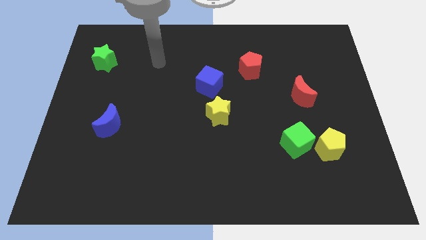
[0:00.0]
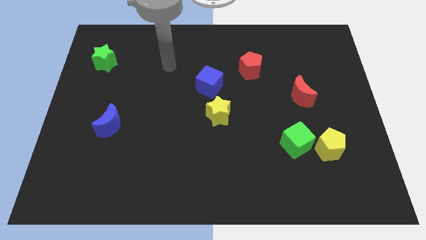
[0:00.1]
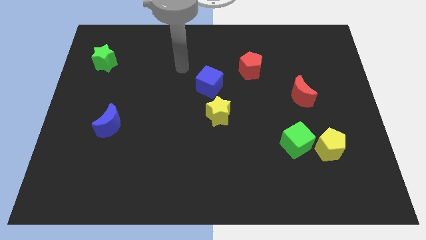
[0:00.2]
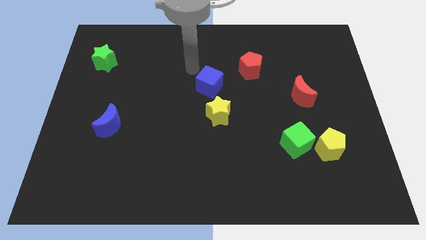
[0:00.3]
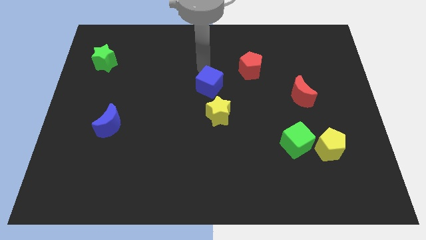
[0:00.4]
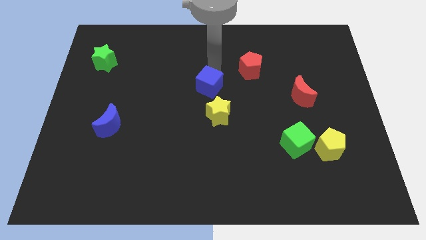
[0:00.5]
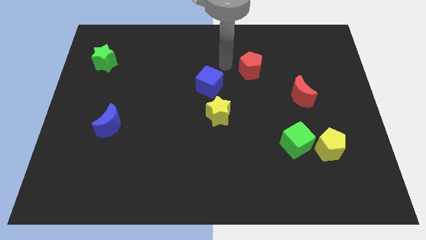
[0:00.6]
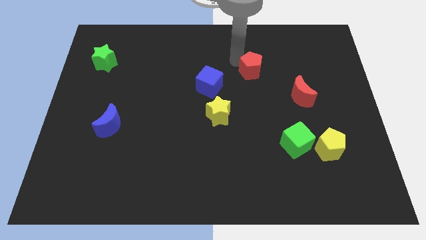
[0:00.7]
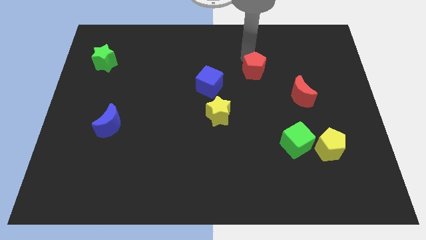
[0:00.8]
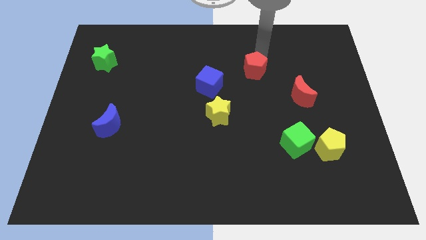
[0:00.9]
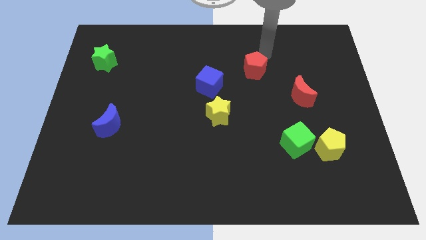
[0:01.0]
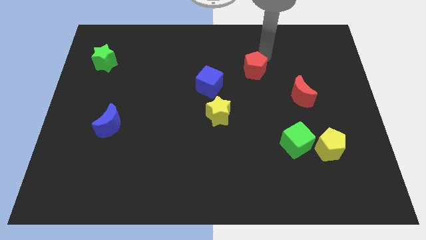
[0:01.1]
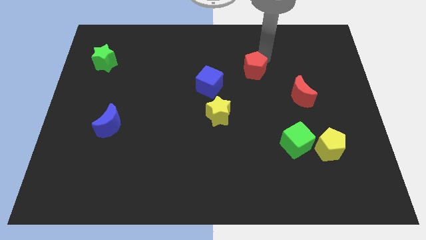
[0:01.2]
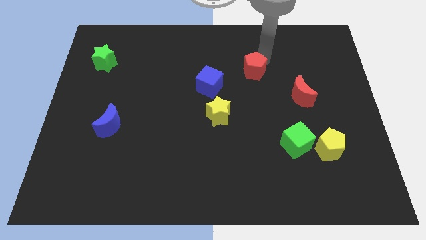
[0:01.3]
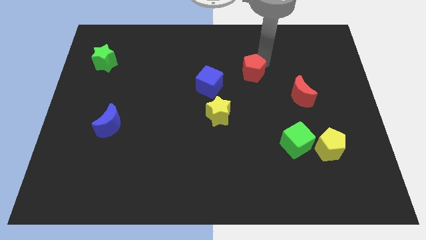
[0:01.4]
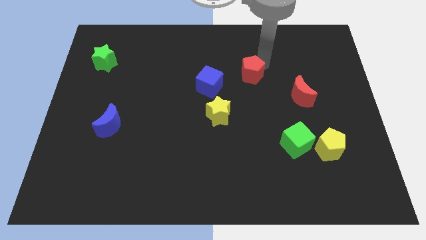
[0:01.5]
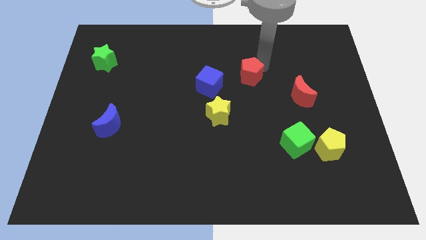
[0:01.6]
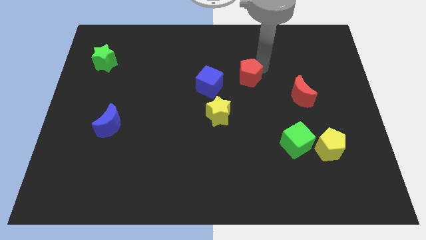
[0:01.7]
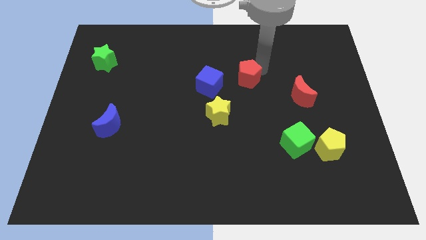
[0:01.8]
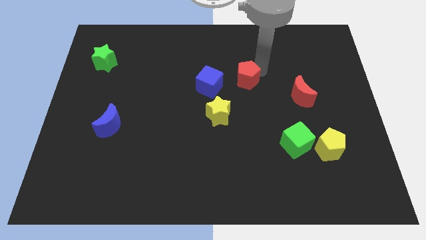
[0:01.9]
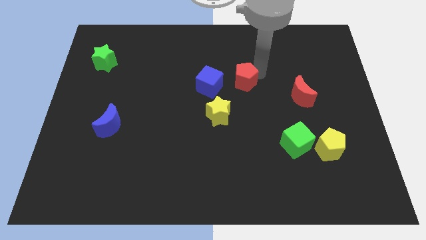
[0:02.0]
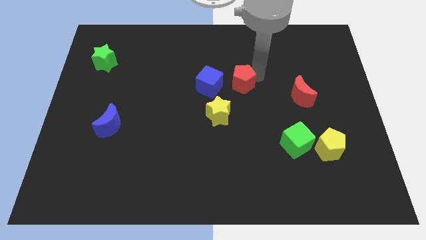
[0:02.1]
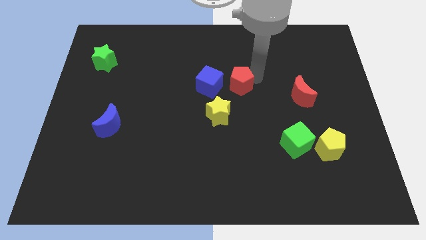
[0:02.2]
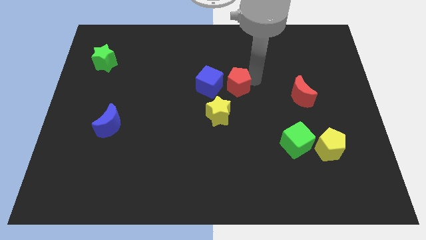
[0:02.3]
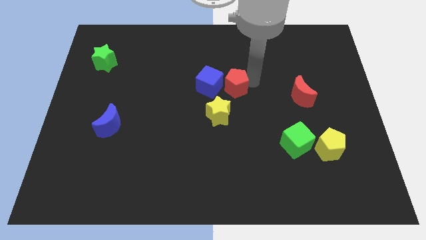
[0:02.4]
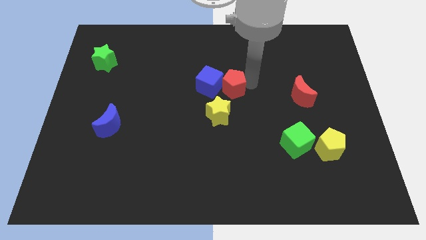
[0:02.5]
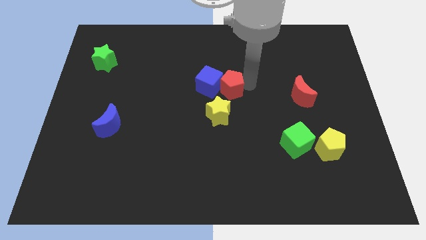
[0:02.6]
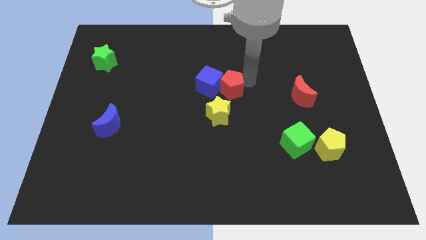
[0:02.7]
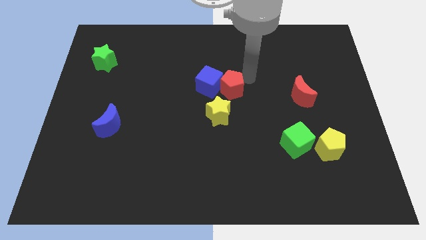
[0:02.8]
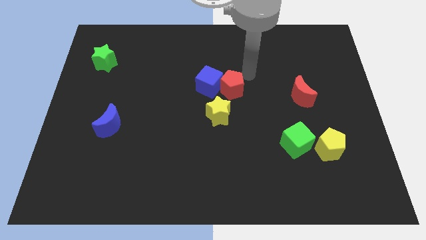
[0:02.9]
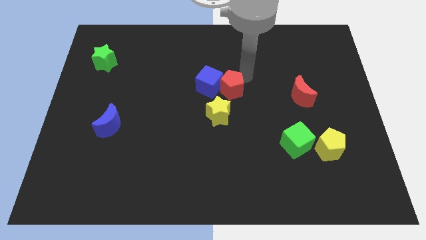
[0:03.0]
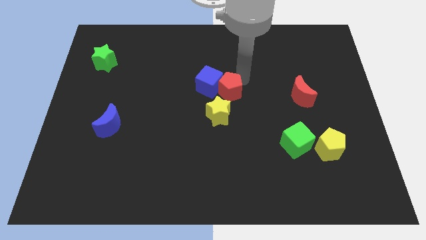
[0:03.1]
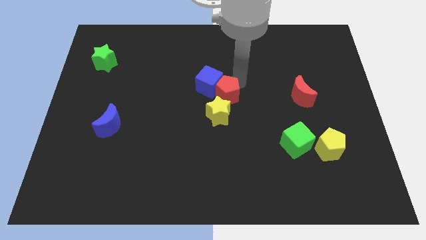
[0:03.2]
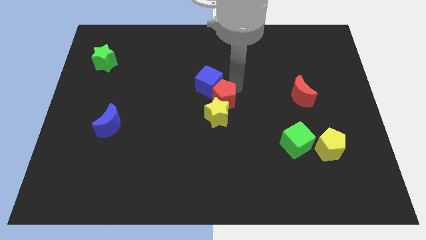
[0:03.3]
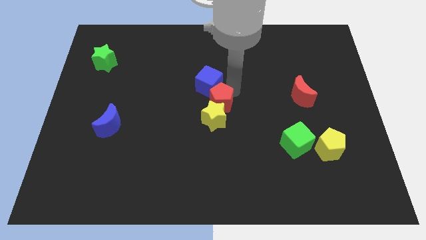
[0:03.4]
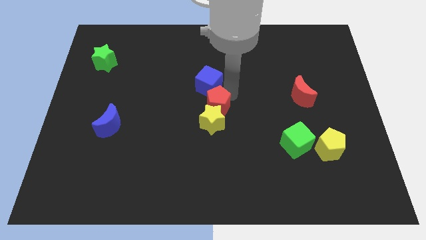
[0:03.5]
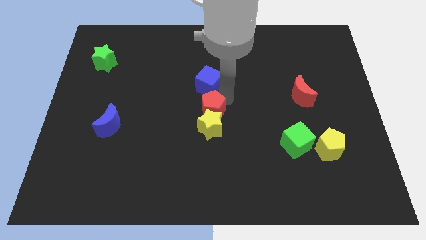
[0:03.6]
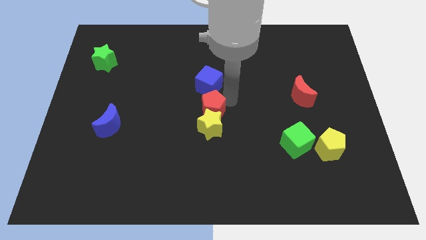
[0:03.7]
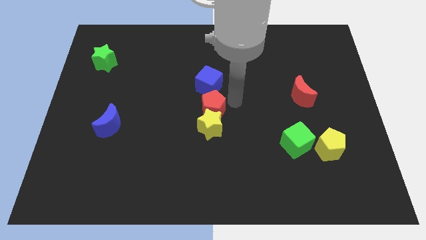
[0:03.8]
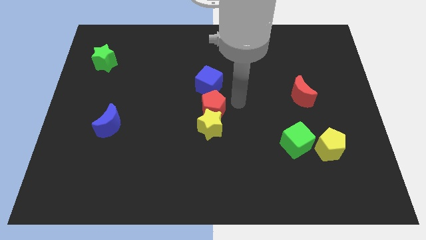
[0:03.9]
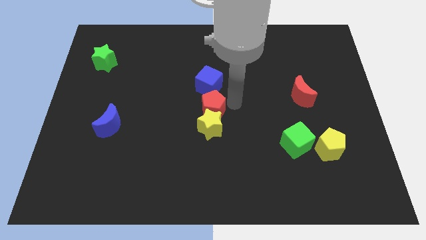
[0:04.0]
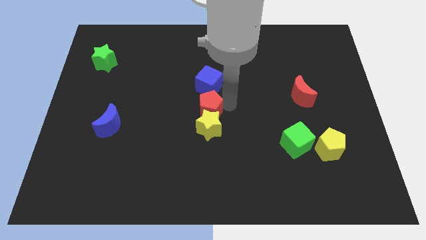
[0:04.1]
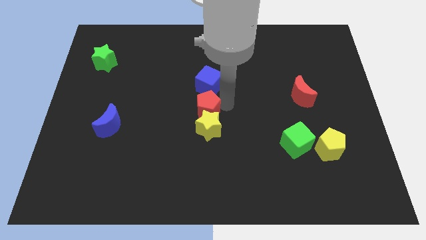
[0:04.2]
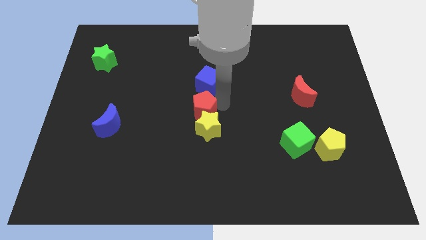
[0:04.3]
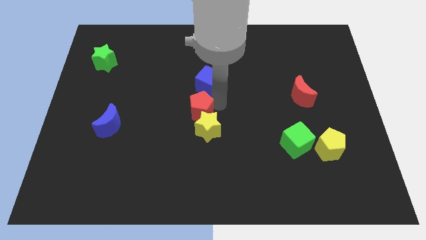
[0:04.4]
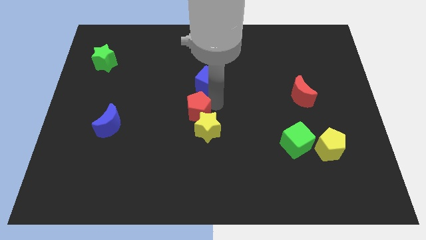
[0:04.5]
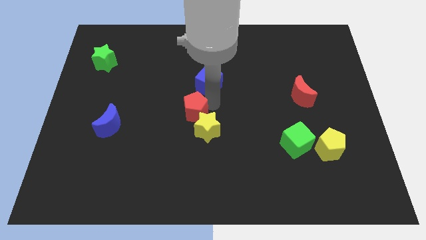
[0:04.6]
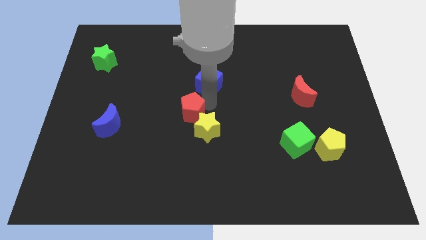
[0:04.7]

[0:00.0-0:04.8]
move the red pentagon down and to the left

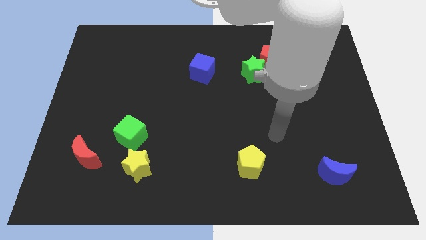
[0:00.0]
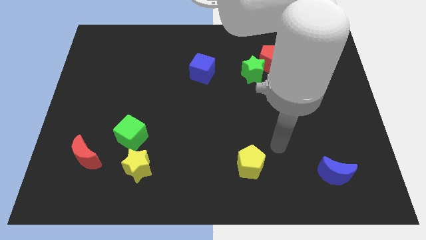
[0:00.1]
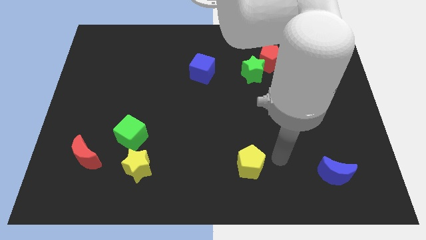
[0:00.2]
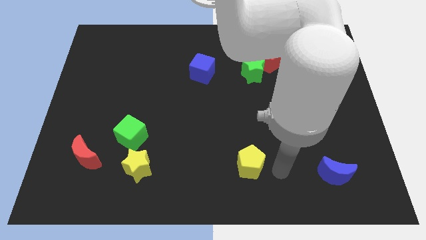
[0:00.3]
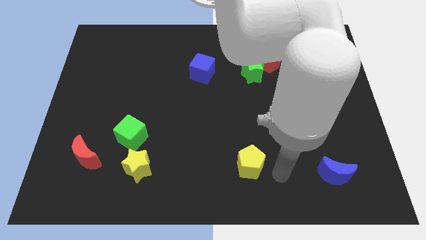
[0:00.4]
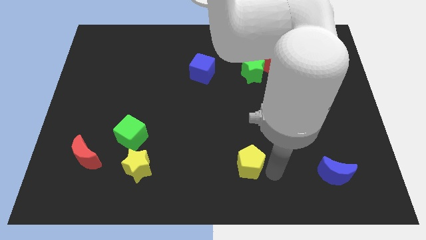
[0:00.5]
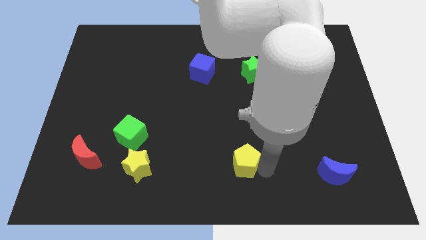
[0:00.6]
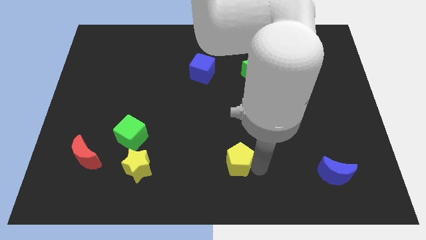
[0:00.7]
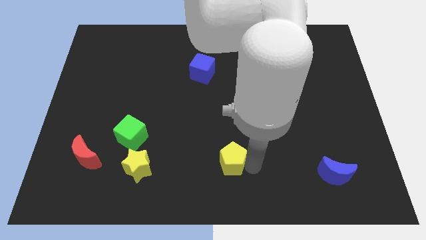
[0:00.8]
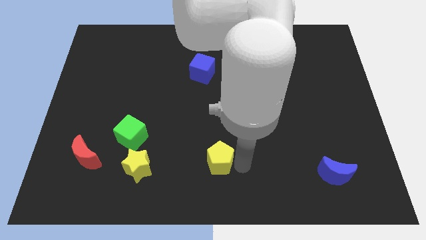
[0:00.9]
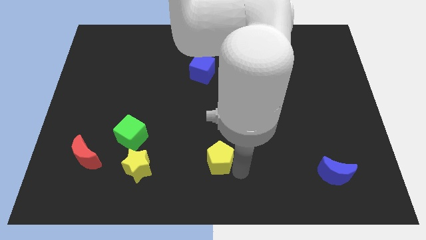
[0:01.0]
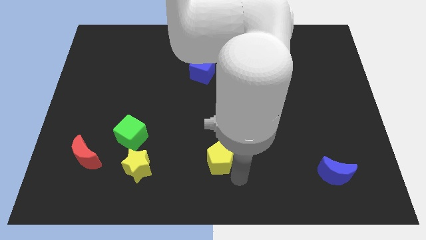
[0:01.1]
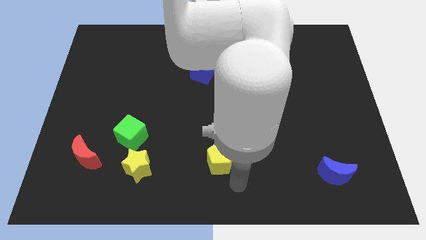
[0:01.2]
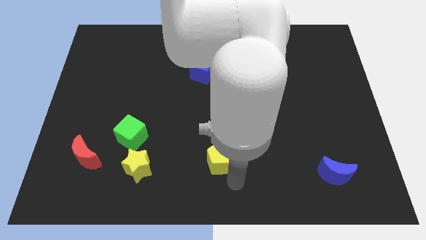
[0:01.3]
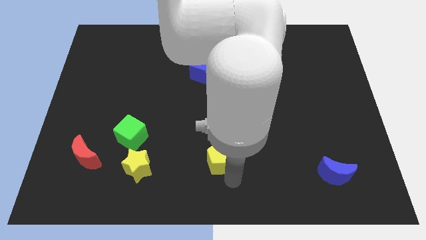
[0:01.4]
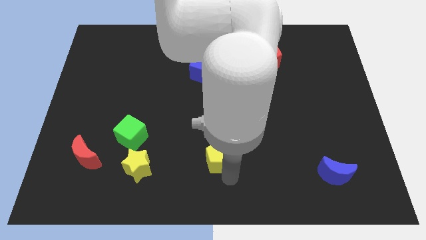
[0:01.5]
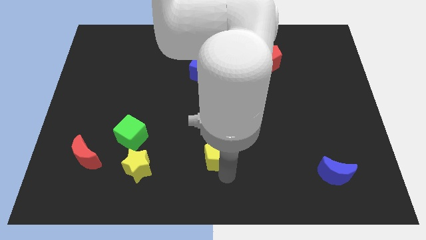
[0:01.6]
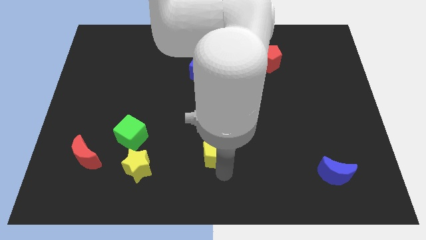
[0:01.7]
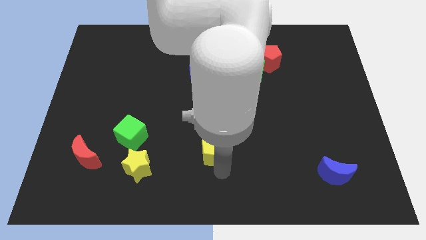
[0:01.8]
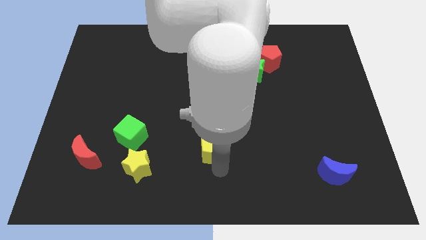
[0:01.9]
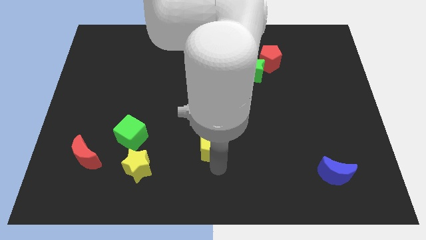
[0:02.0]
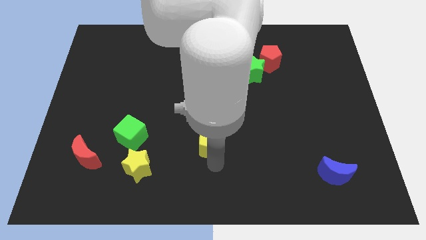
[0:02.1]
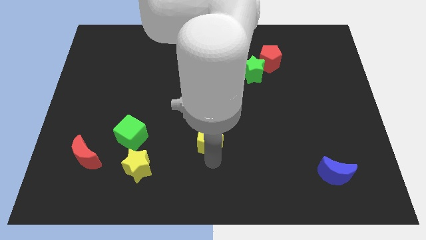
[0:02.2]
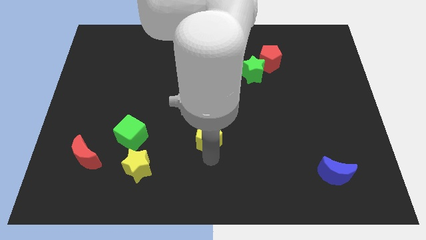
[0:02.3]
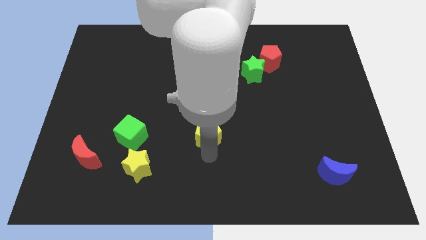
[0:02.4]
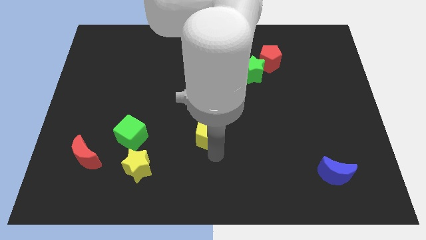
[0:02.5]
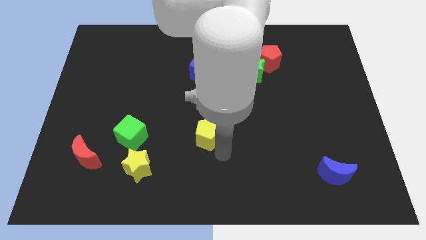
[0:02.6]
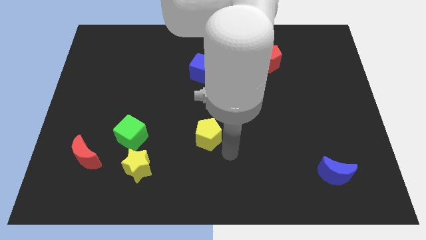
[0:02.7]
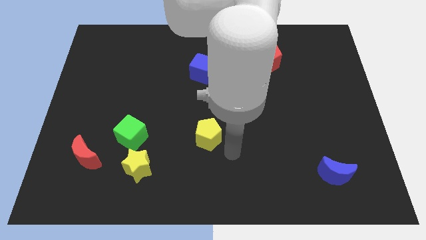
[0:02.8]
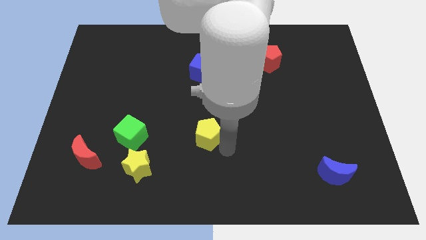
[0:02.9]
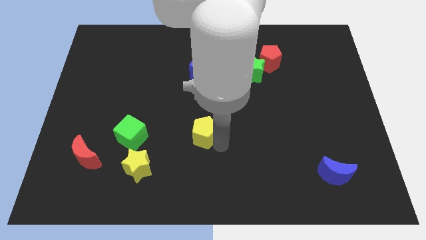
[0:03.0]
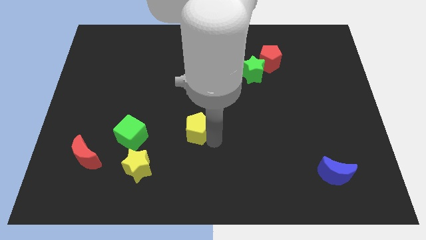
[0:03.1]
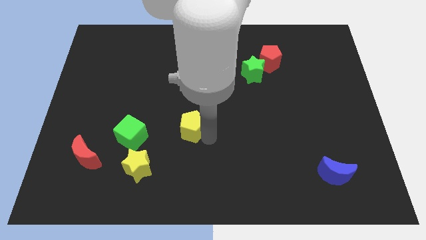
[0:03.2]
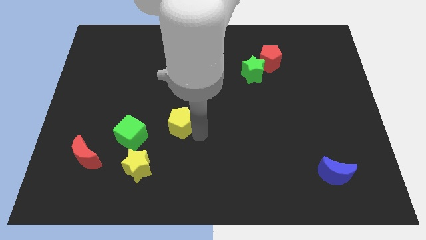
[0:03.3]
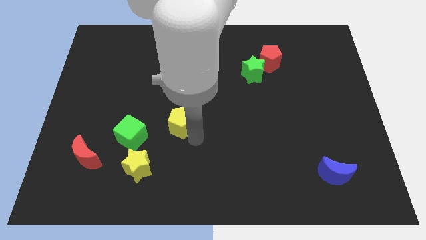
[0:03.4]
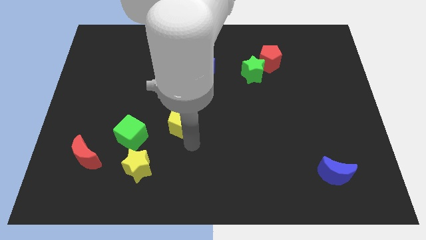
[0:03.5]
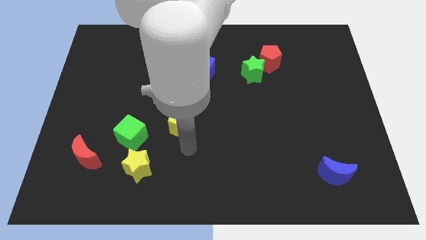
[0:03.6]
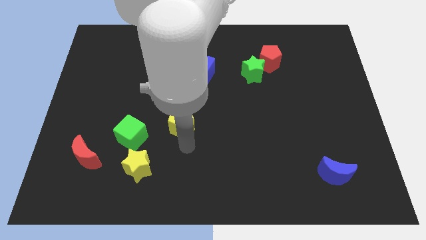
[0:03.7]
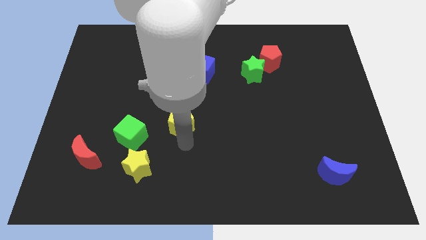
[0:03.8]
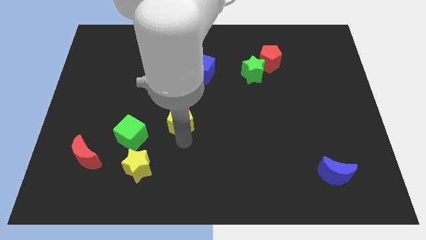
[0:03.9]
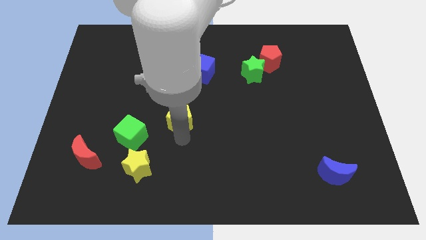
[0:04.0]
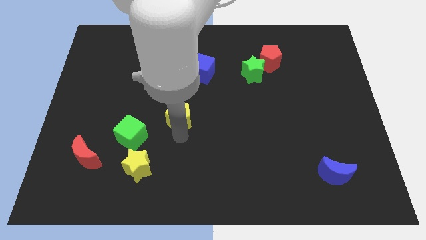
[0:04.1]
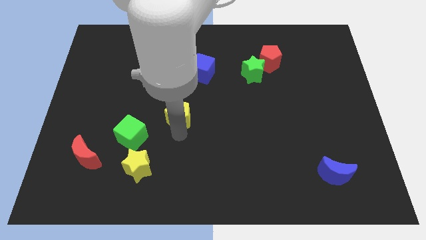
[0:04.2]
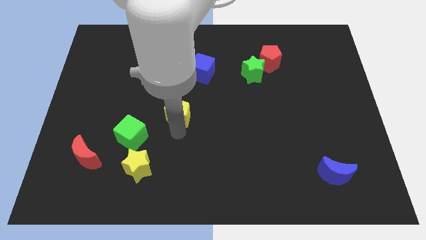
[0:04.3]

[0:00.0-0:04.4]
push the yellow pentagon up and then left
